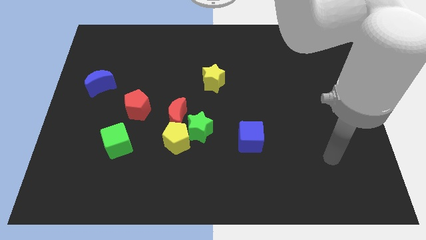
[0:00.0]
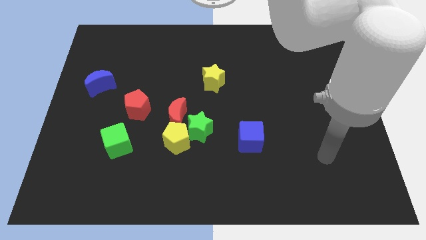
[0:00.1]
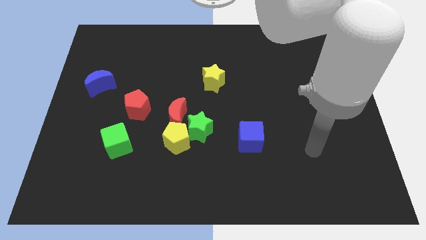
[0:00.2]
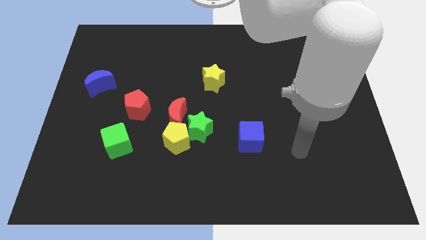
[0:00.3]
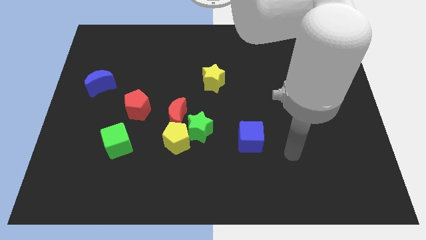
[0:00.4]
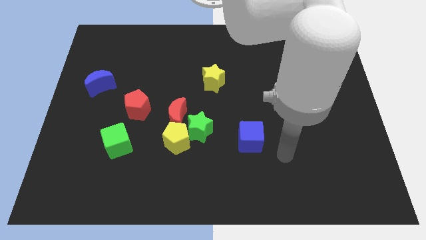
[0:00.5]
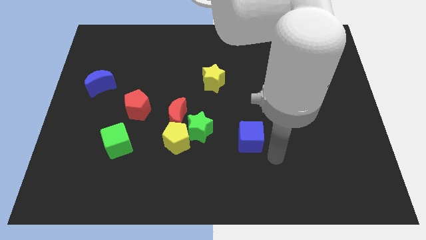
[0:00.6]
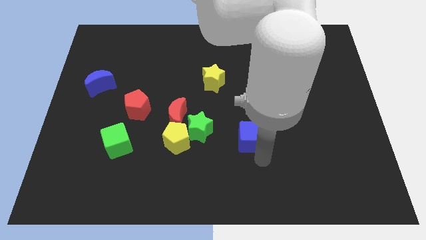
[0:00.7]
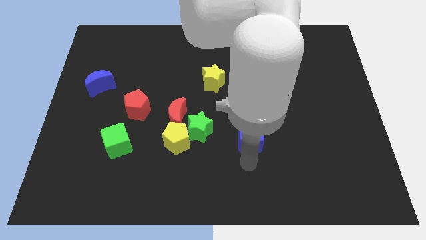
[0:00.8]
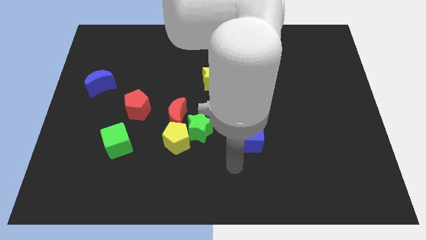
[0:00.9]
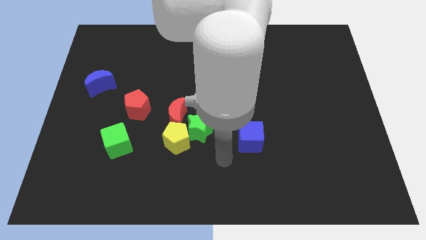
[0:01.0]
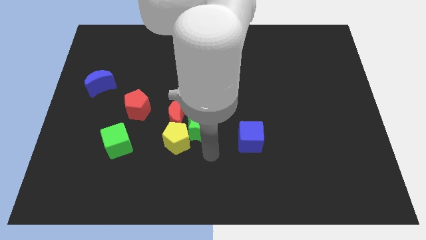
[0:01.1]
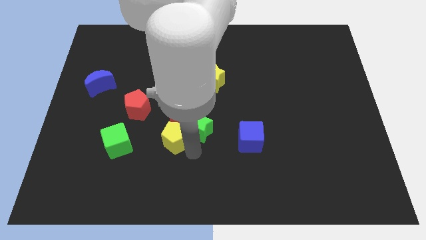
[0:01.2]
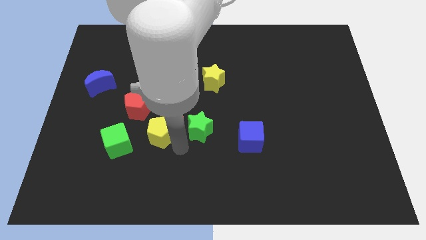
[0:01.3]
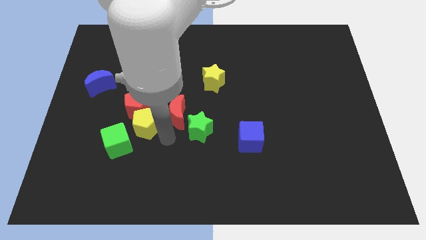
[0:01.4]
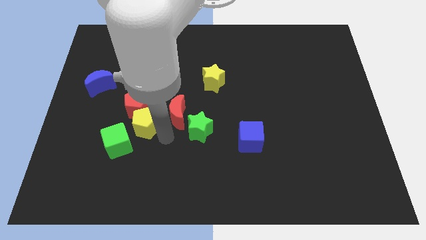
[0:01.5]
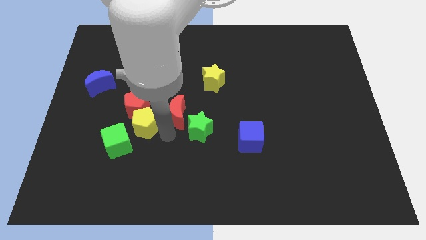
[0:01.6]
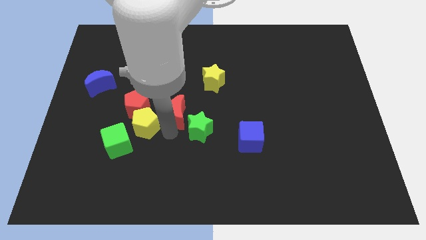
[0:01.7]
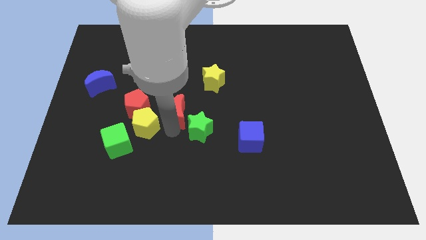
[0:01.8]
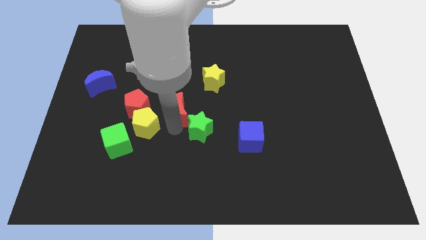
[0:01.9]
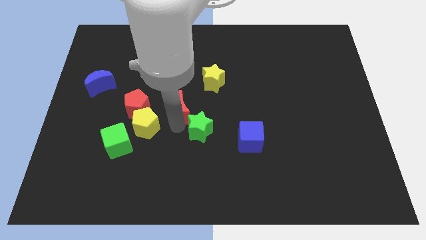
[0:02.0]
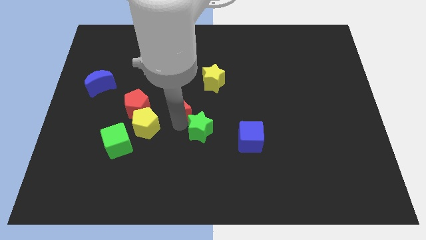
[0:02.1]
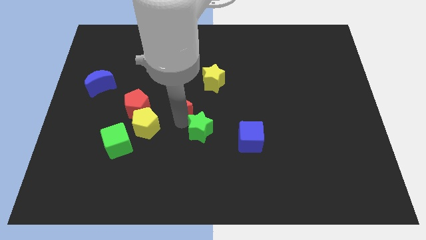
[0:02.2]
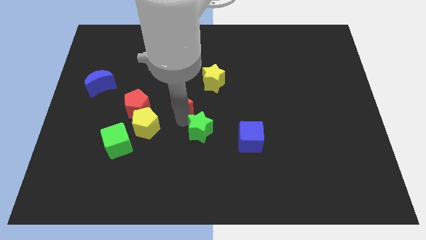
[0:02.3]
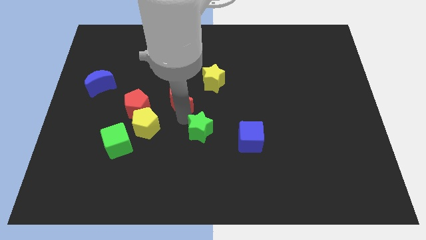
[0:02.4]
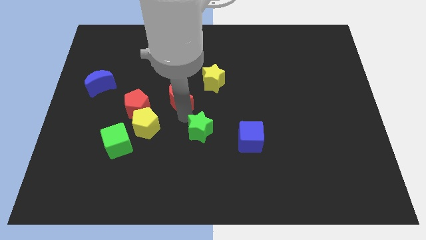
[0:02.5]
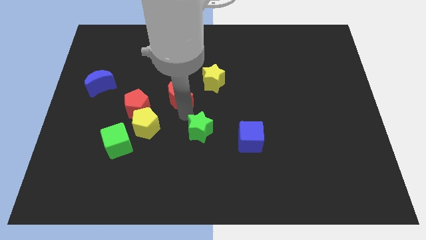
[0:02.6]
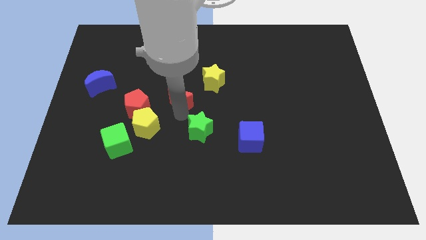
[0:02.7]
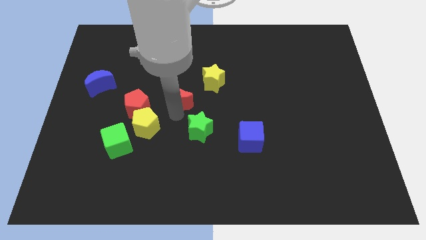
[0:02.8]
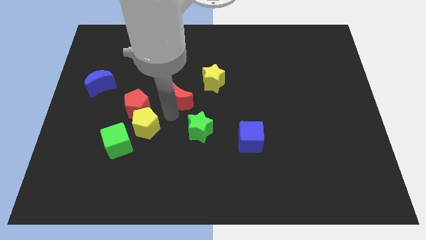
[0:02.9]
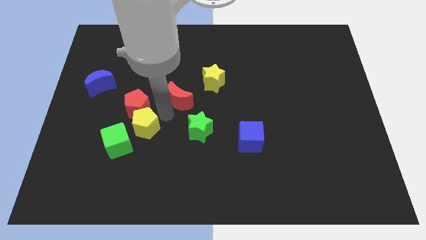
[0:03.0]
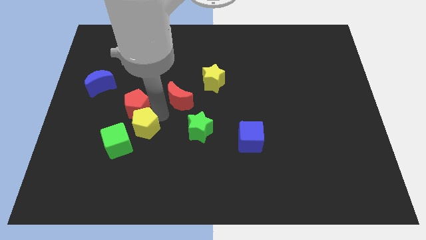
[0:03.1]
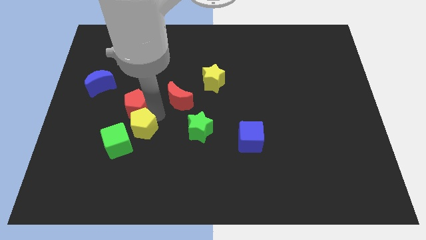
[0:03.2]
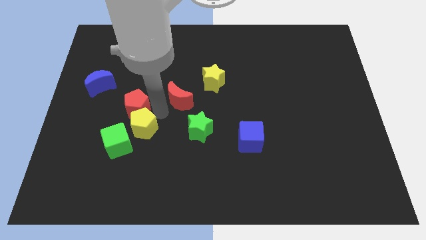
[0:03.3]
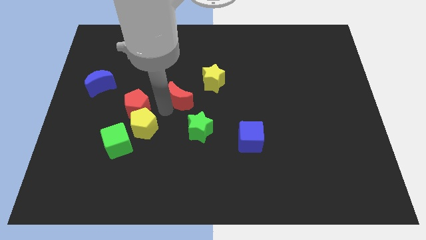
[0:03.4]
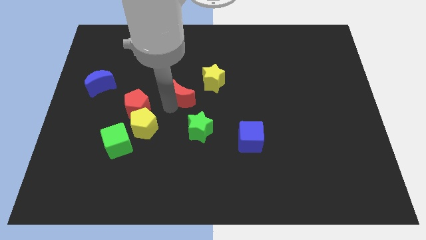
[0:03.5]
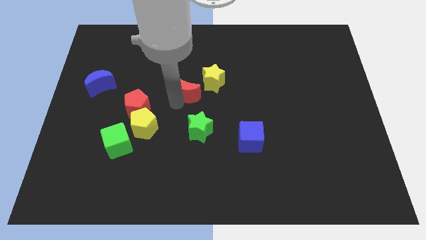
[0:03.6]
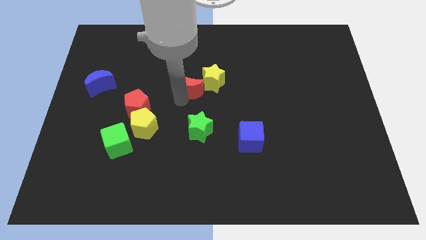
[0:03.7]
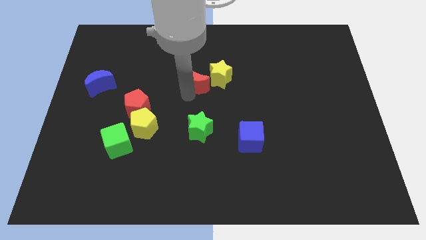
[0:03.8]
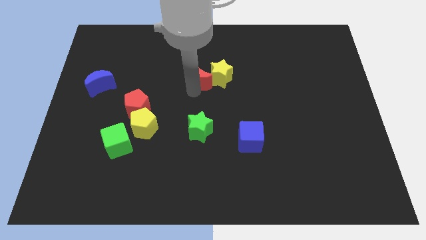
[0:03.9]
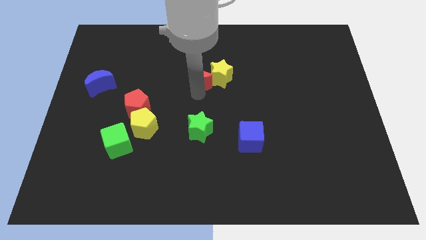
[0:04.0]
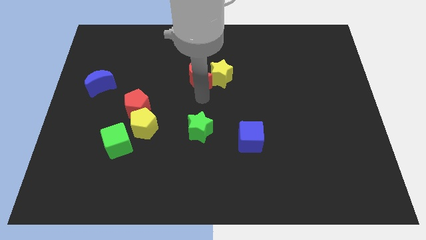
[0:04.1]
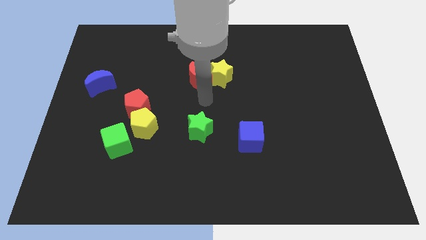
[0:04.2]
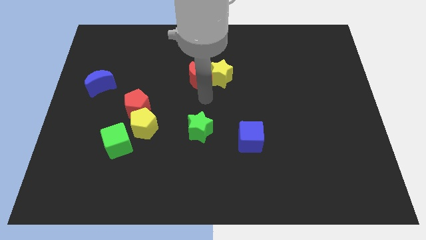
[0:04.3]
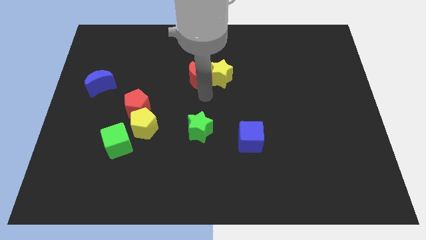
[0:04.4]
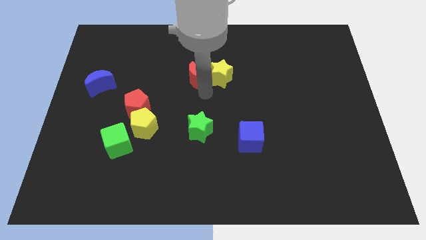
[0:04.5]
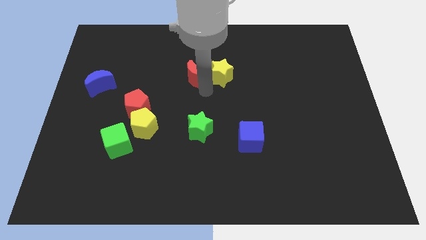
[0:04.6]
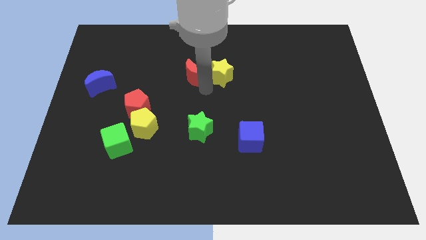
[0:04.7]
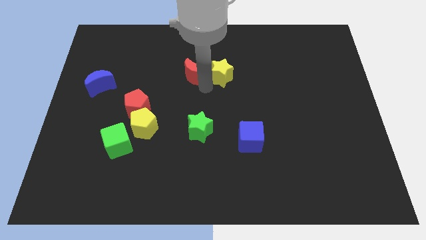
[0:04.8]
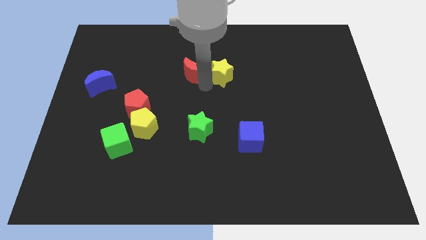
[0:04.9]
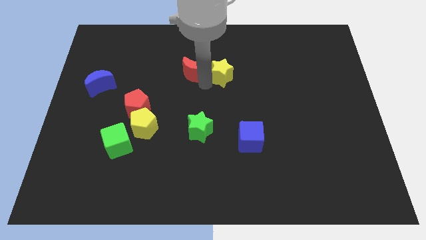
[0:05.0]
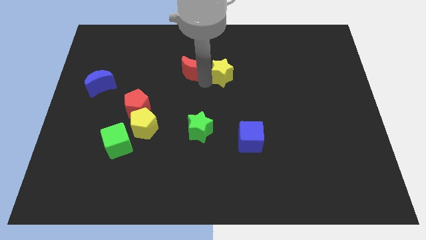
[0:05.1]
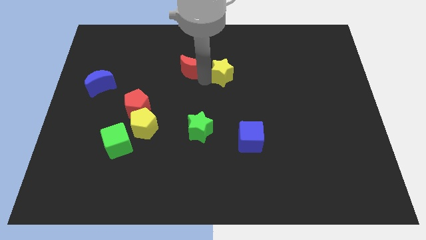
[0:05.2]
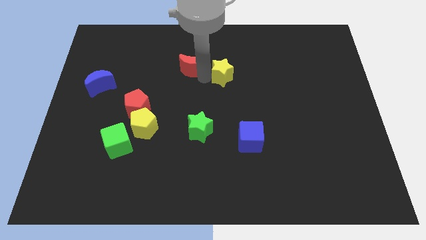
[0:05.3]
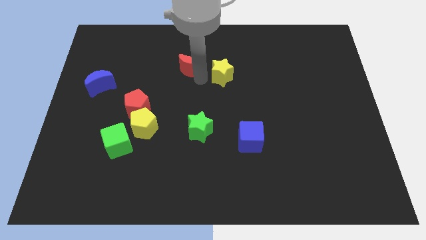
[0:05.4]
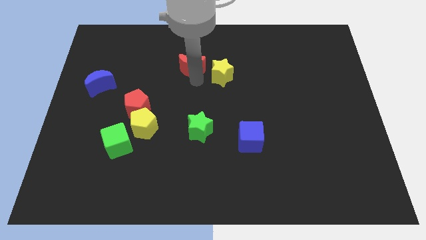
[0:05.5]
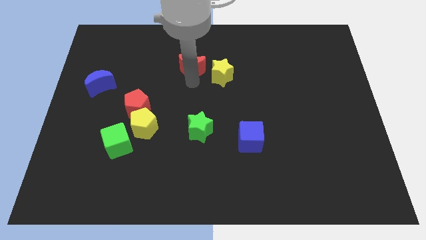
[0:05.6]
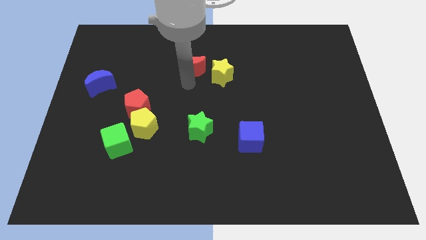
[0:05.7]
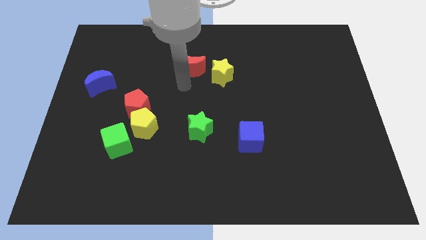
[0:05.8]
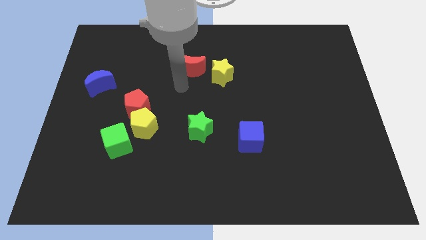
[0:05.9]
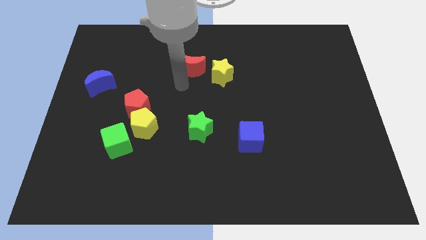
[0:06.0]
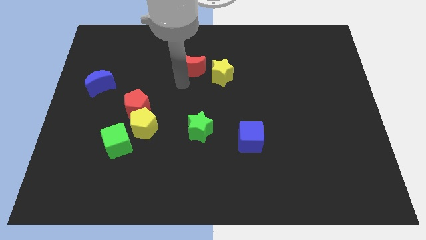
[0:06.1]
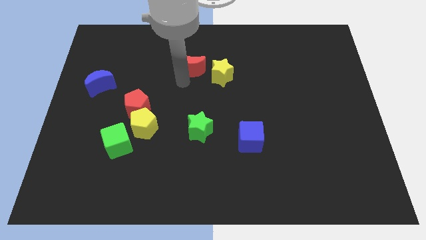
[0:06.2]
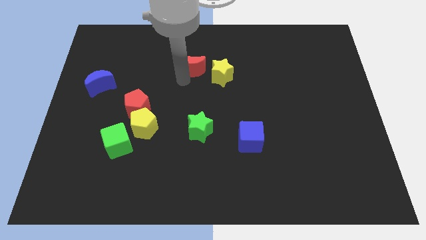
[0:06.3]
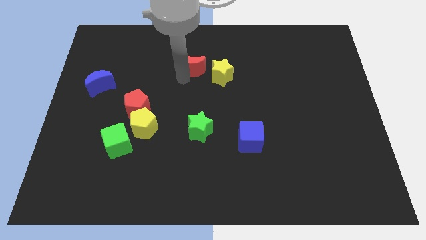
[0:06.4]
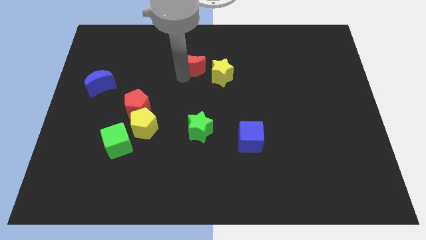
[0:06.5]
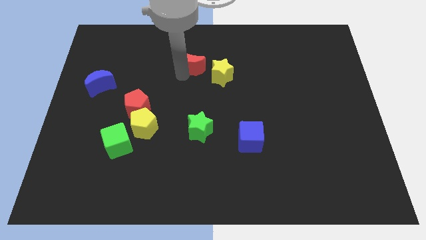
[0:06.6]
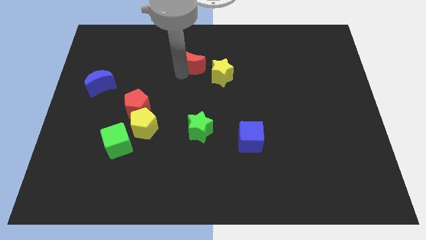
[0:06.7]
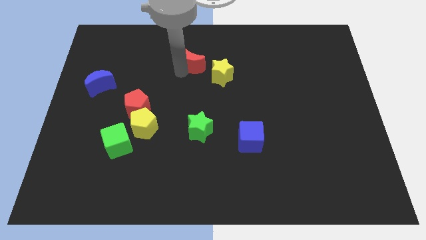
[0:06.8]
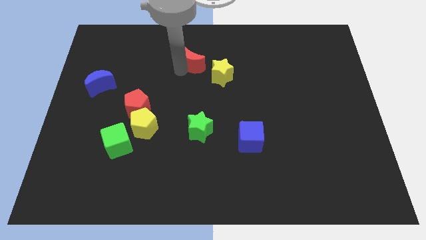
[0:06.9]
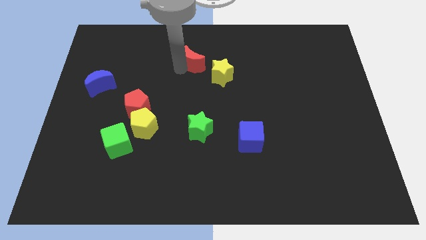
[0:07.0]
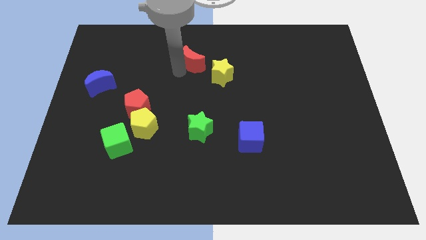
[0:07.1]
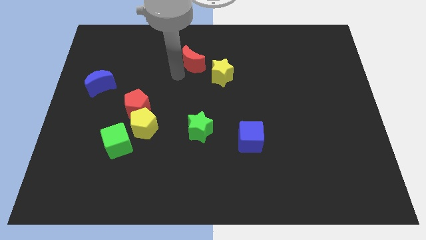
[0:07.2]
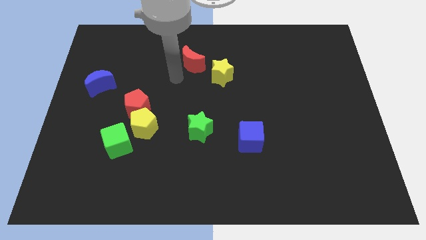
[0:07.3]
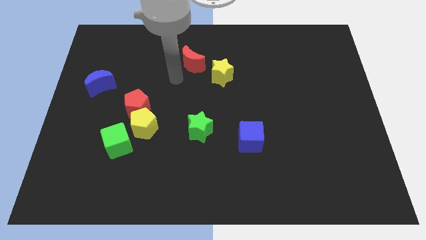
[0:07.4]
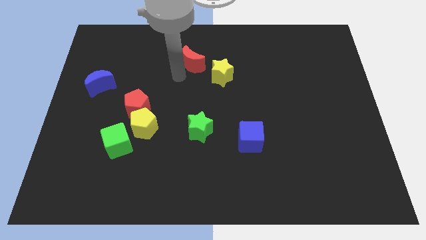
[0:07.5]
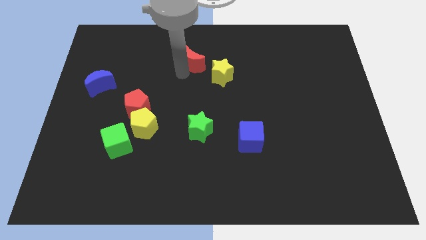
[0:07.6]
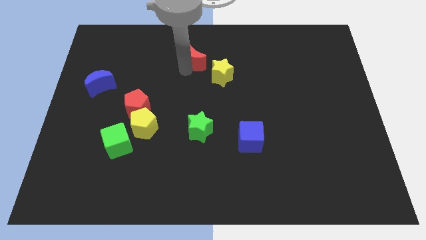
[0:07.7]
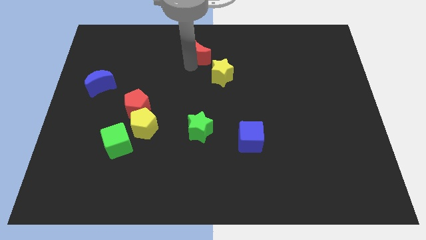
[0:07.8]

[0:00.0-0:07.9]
put the red moon to the towards your base
